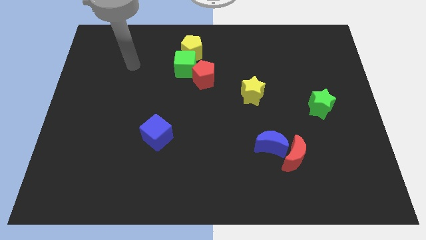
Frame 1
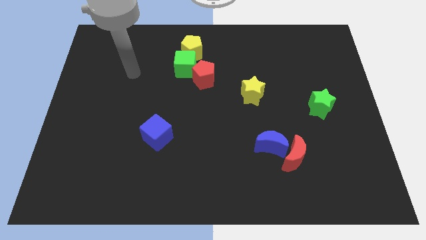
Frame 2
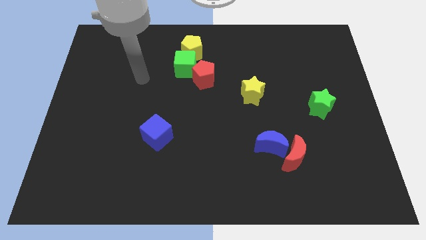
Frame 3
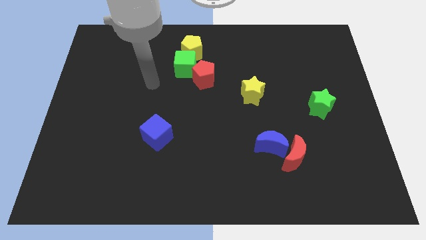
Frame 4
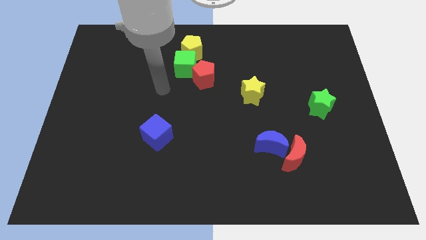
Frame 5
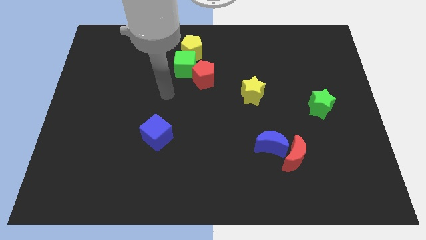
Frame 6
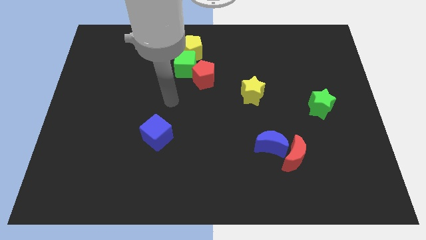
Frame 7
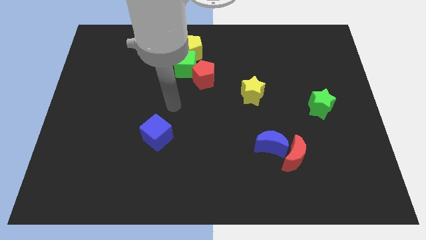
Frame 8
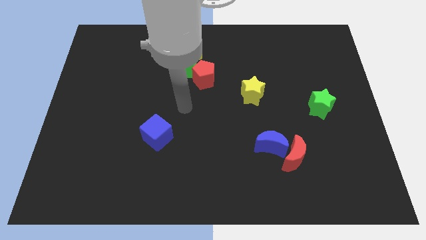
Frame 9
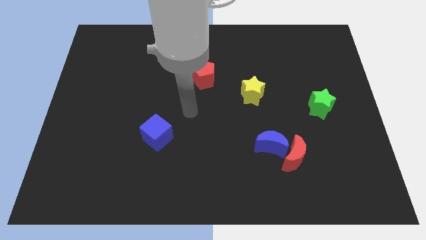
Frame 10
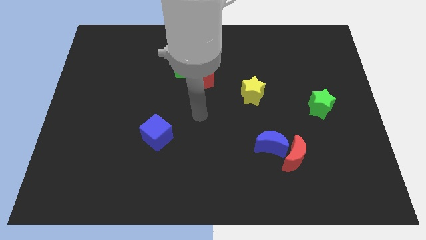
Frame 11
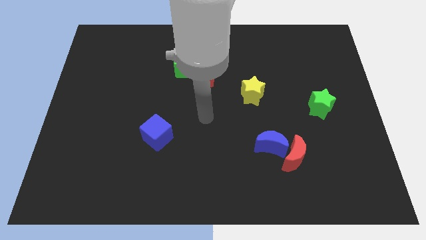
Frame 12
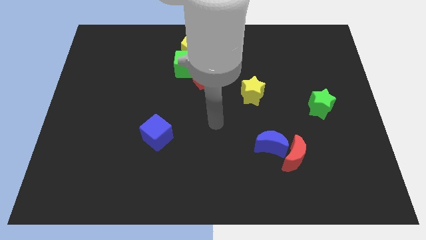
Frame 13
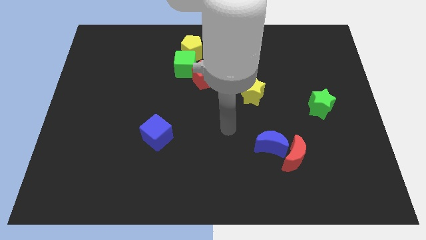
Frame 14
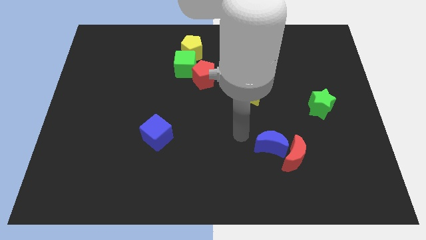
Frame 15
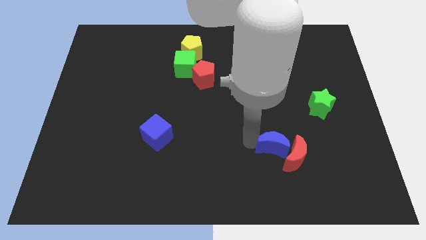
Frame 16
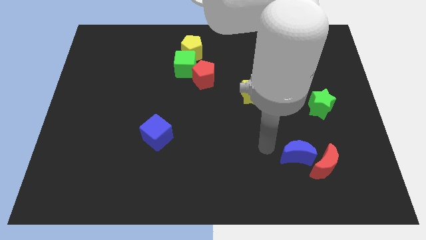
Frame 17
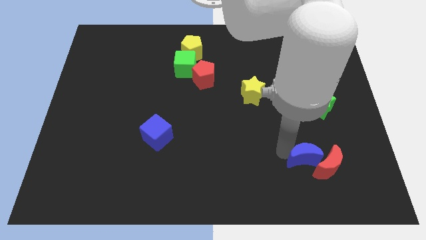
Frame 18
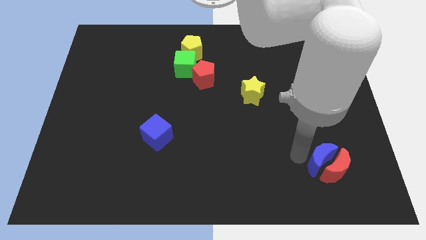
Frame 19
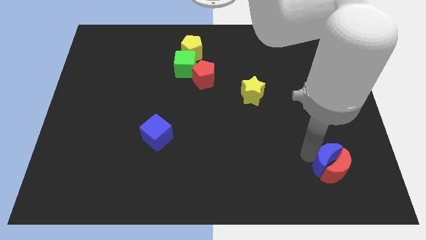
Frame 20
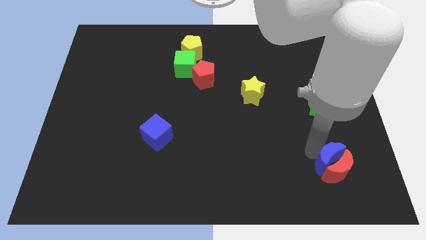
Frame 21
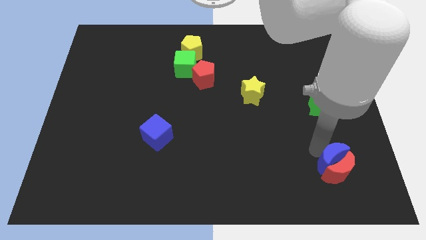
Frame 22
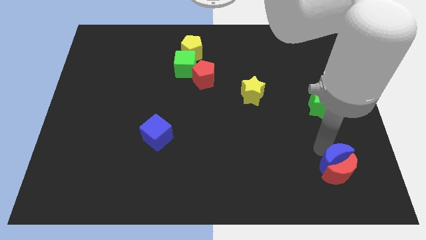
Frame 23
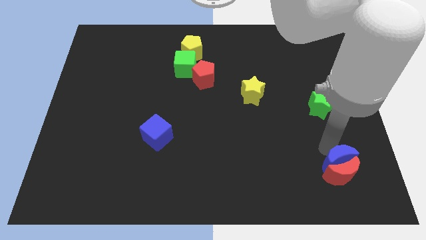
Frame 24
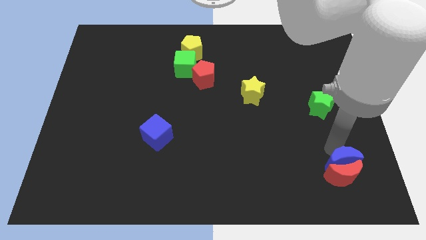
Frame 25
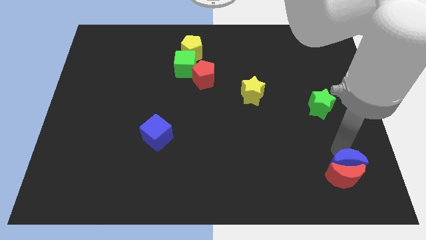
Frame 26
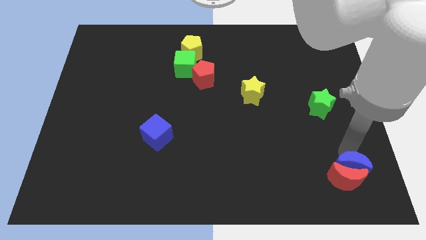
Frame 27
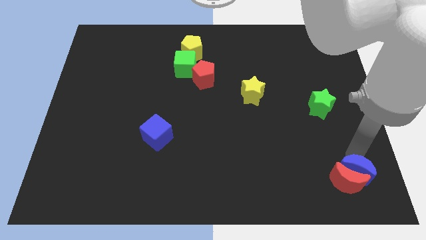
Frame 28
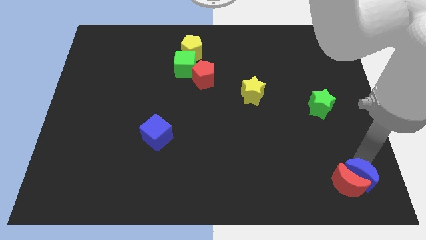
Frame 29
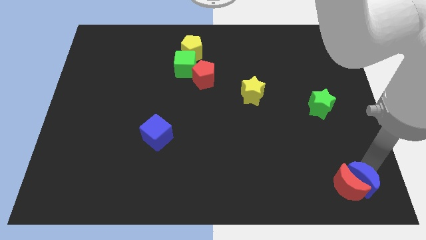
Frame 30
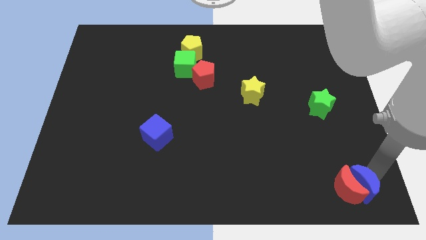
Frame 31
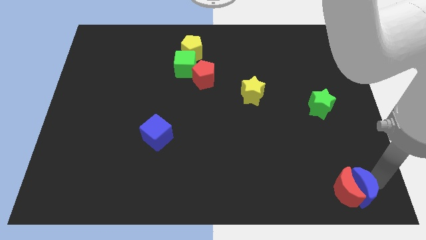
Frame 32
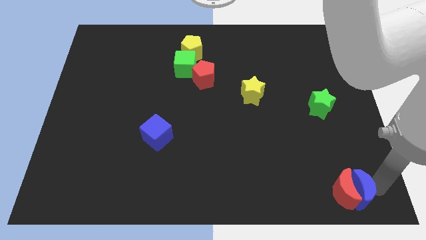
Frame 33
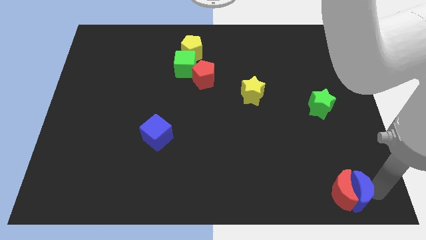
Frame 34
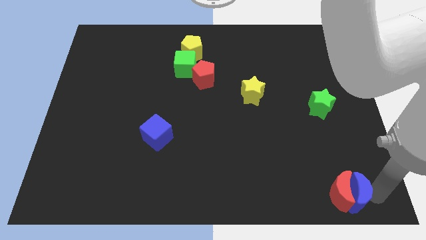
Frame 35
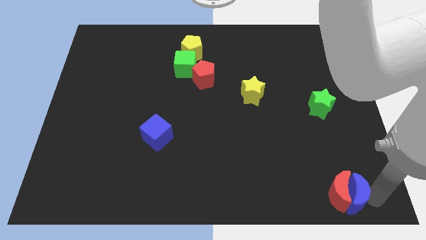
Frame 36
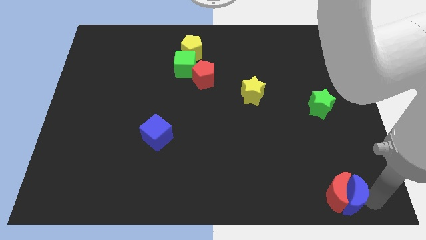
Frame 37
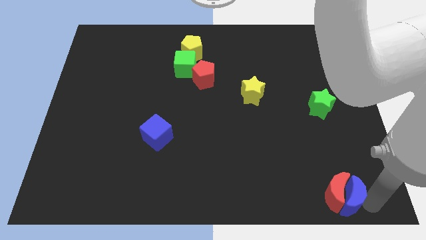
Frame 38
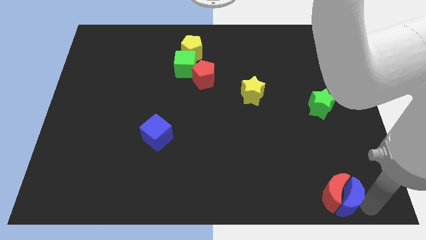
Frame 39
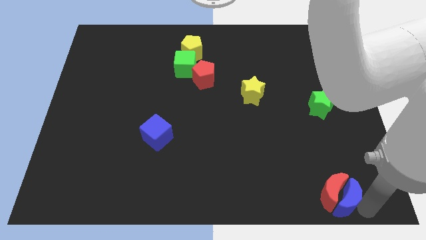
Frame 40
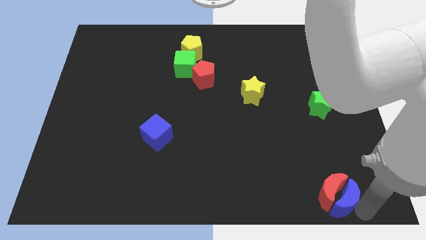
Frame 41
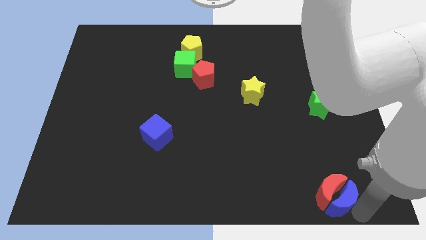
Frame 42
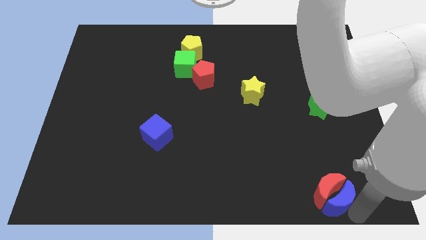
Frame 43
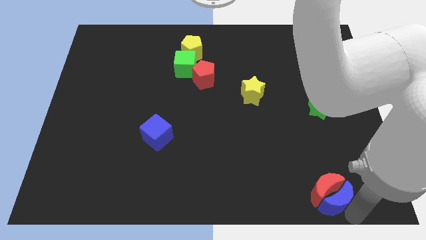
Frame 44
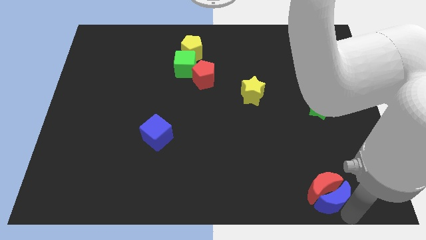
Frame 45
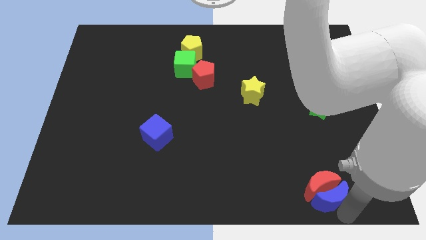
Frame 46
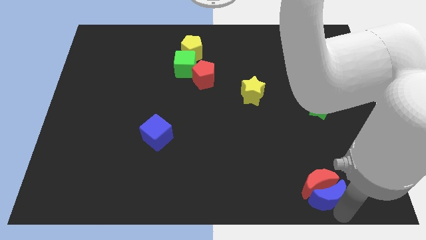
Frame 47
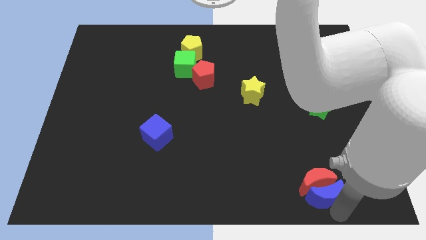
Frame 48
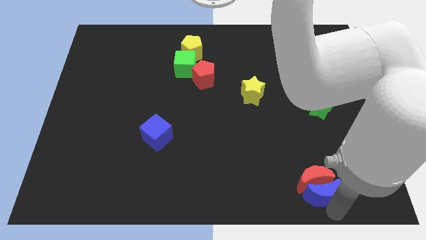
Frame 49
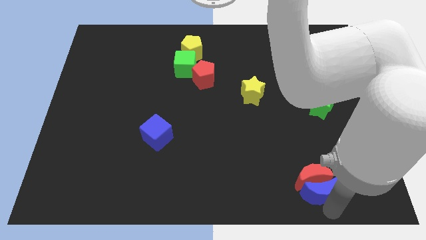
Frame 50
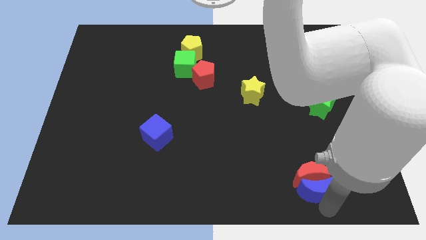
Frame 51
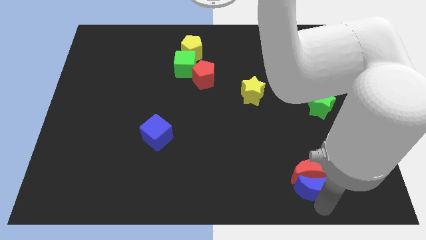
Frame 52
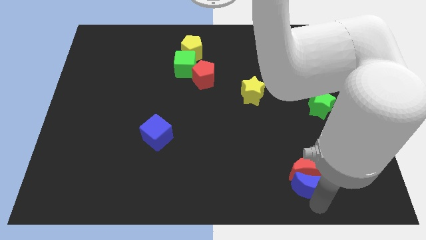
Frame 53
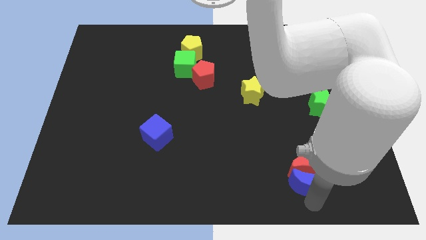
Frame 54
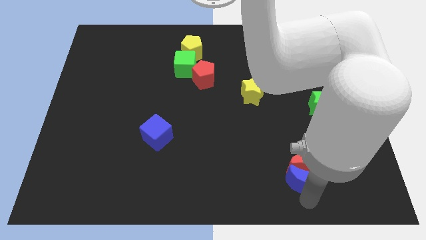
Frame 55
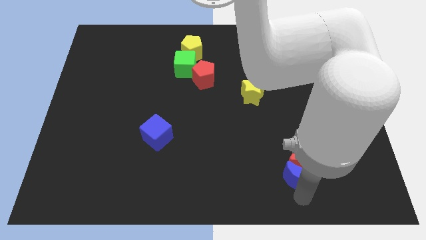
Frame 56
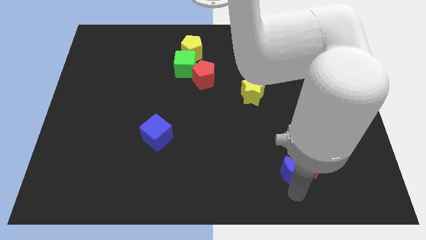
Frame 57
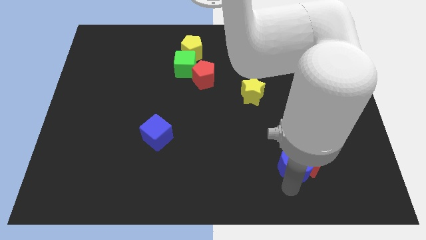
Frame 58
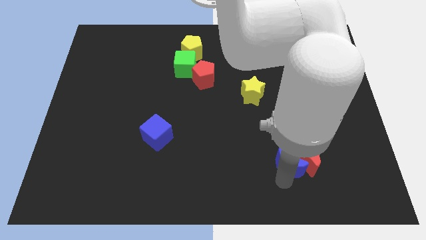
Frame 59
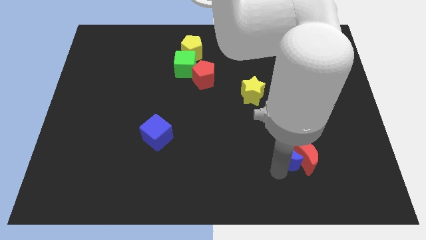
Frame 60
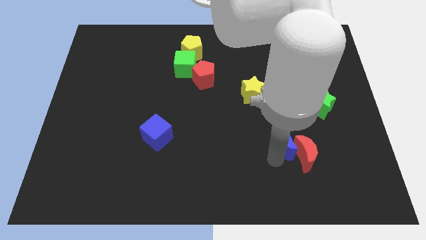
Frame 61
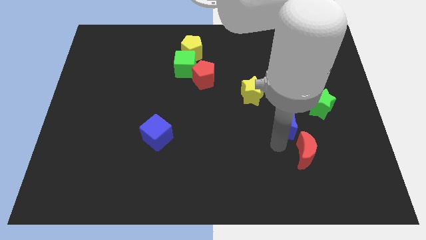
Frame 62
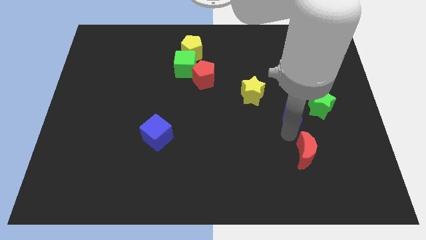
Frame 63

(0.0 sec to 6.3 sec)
pull the red moon apart from the blue moon

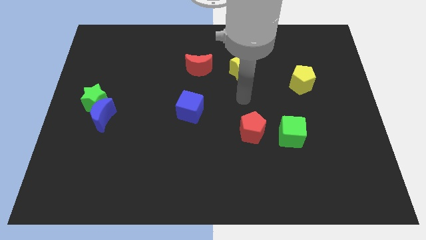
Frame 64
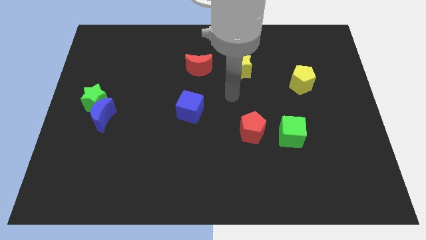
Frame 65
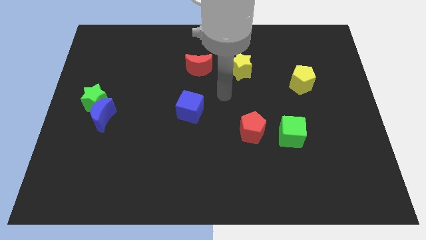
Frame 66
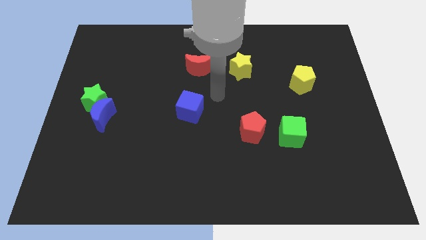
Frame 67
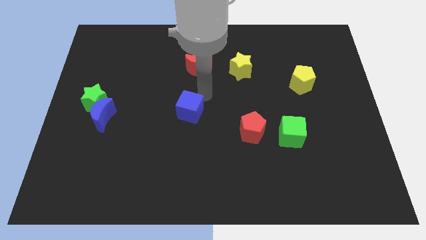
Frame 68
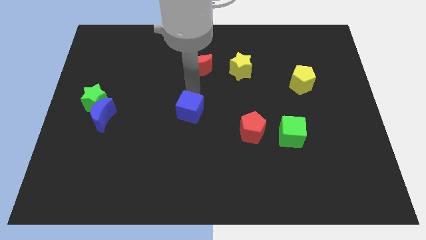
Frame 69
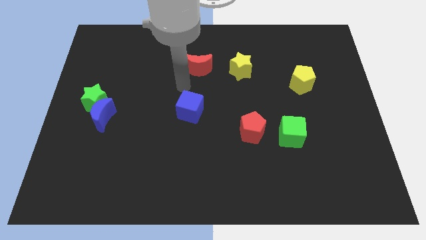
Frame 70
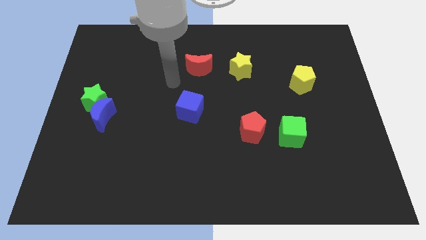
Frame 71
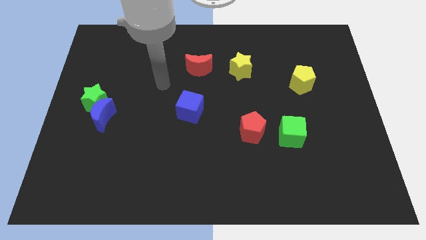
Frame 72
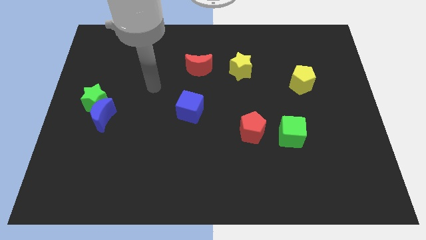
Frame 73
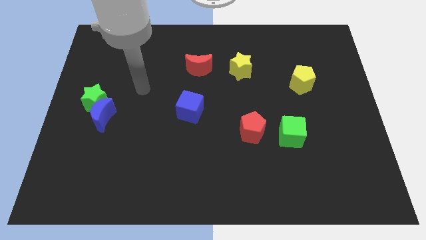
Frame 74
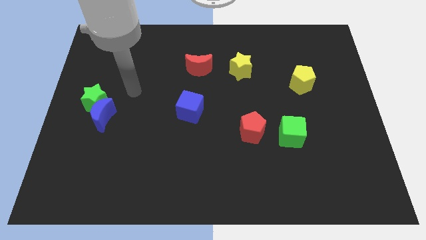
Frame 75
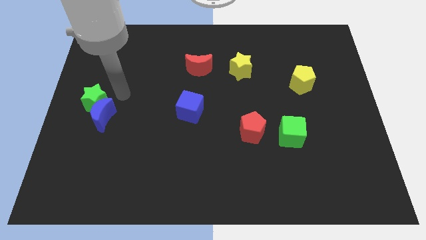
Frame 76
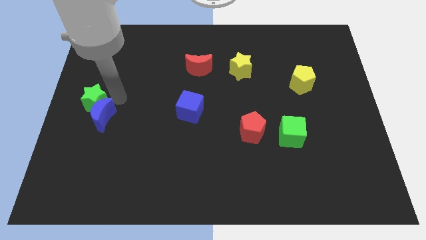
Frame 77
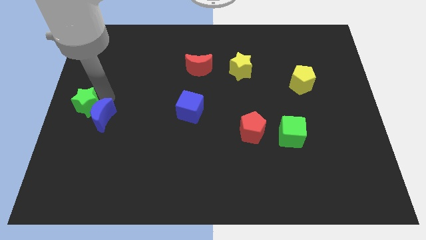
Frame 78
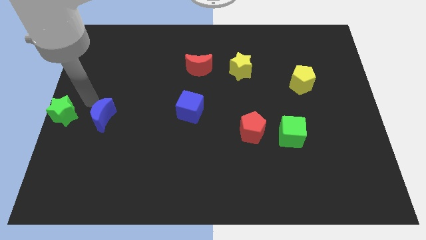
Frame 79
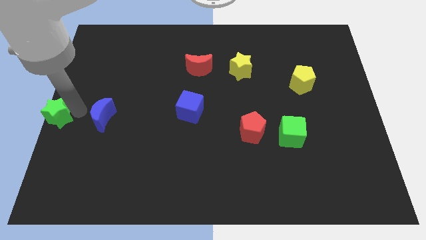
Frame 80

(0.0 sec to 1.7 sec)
separate the blue moon from the green star

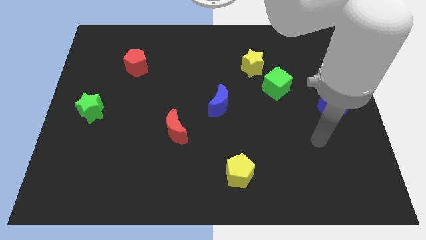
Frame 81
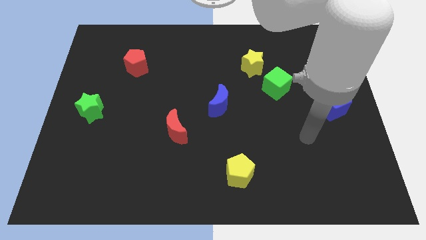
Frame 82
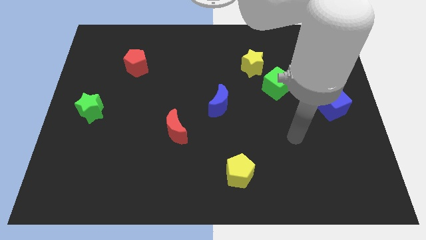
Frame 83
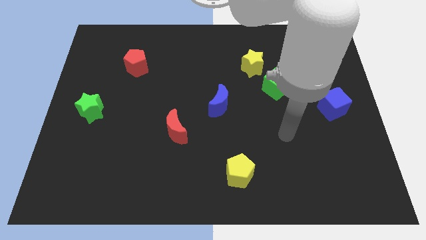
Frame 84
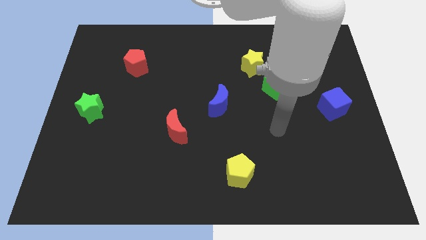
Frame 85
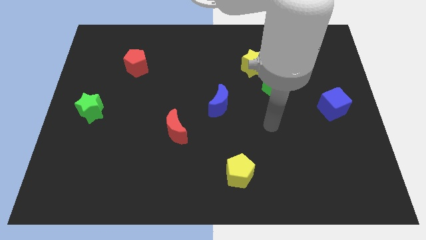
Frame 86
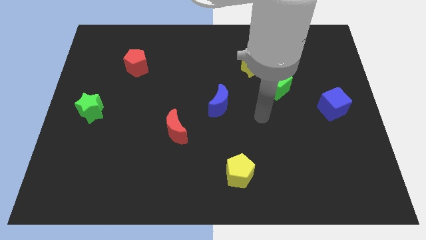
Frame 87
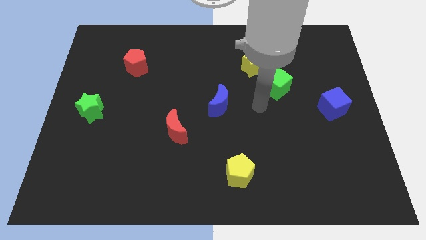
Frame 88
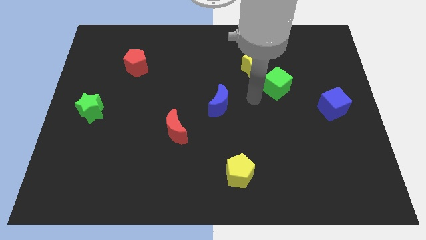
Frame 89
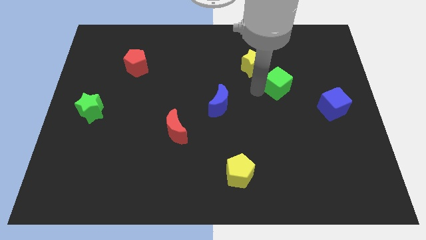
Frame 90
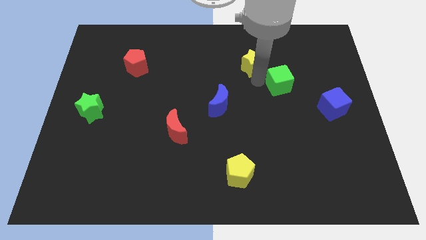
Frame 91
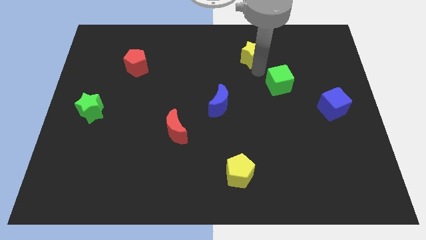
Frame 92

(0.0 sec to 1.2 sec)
separate the green cube from the yellow star

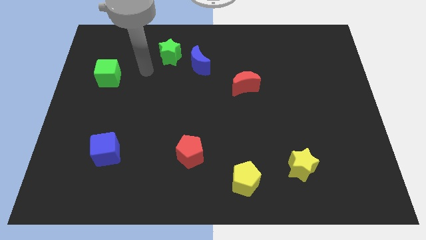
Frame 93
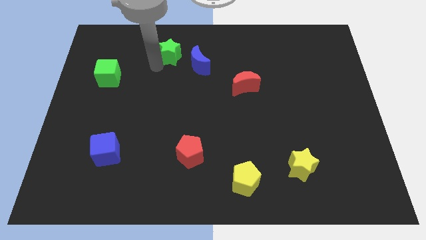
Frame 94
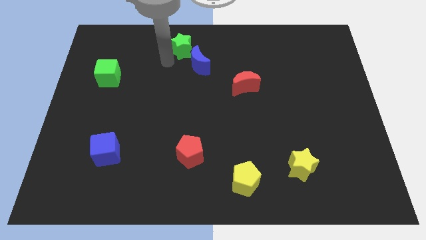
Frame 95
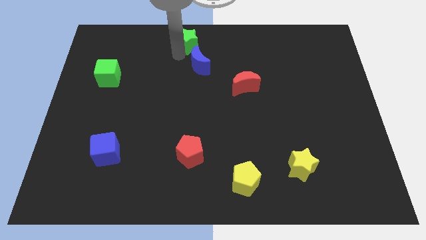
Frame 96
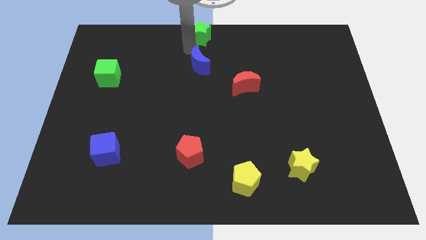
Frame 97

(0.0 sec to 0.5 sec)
move the blue moon away from the green star
